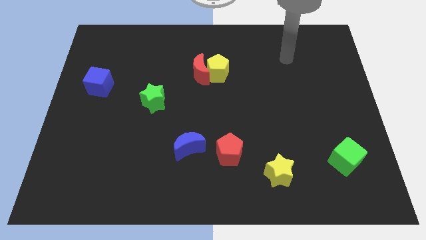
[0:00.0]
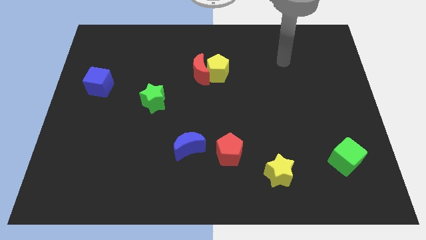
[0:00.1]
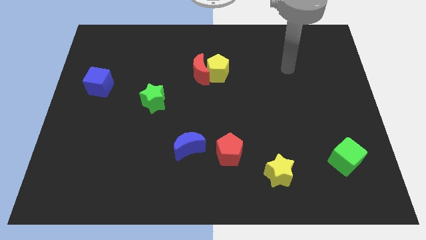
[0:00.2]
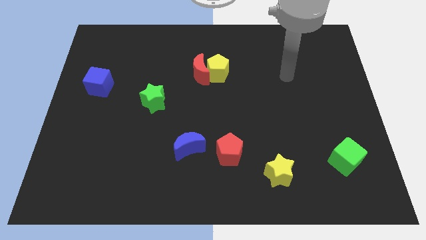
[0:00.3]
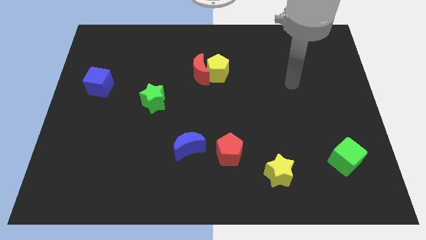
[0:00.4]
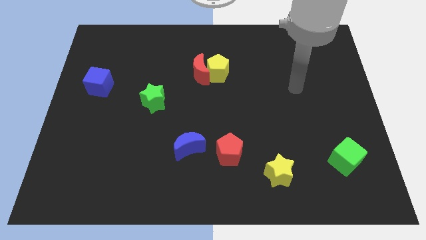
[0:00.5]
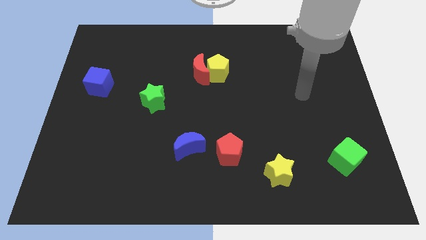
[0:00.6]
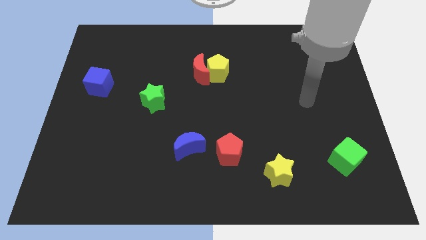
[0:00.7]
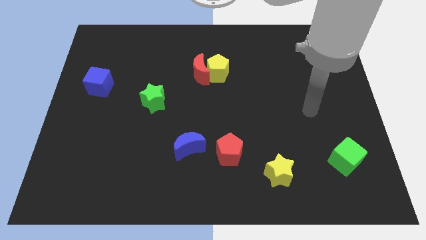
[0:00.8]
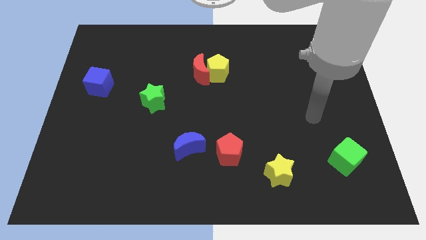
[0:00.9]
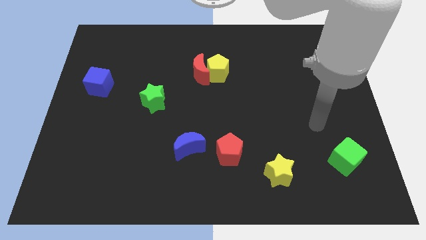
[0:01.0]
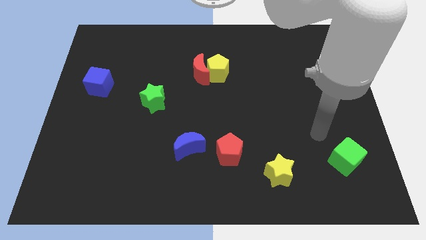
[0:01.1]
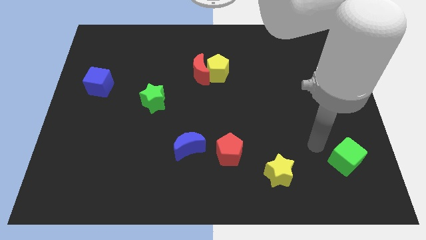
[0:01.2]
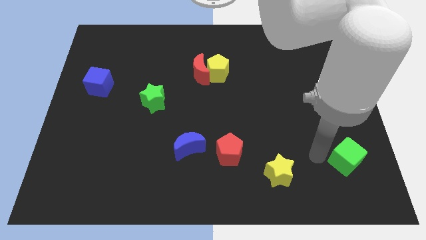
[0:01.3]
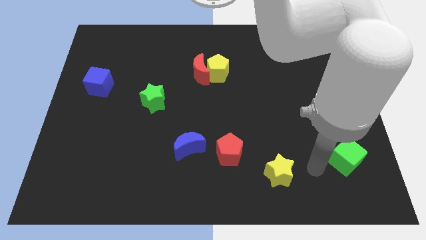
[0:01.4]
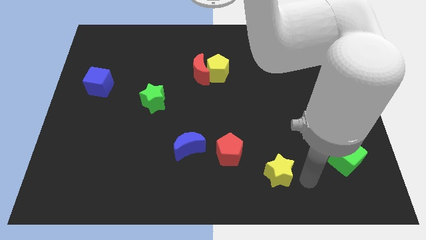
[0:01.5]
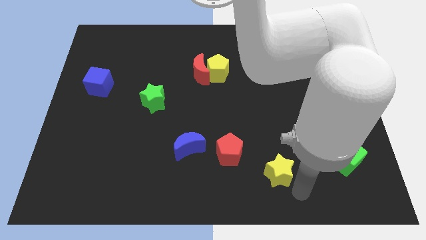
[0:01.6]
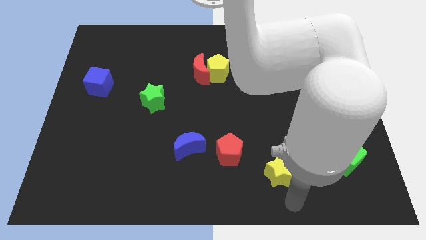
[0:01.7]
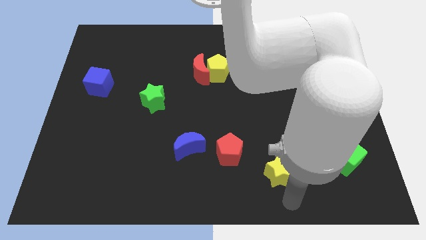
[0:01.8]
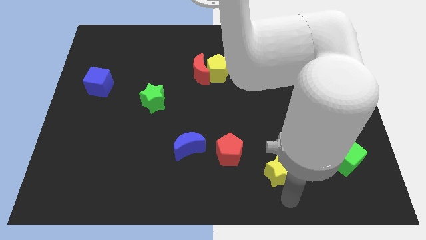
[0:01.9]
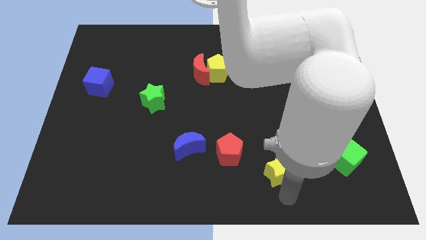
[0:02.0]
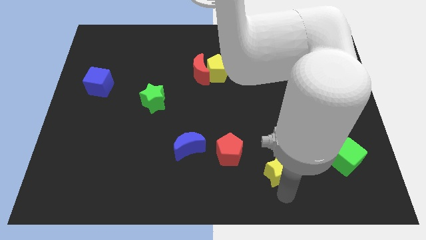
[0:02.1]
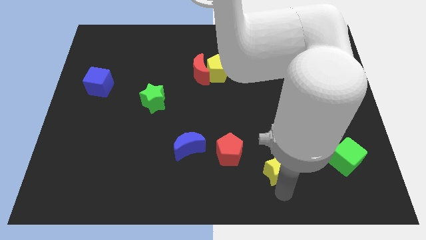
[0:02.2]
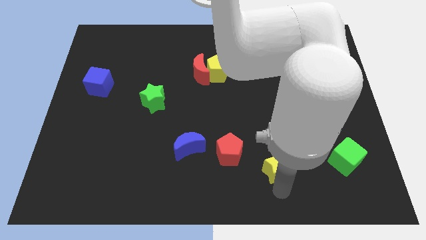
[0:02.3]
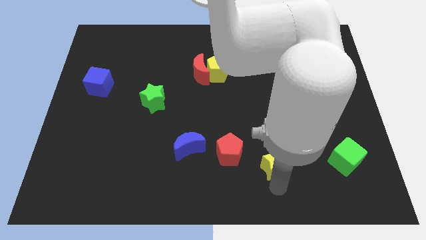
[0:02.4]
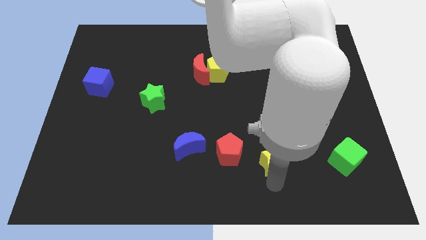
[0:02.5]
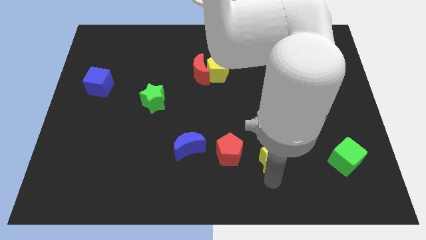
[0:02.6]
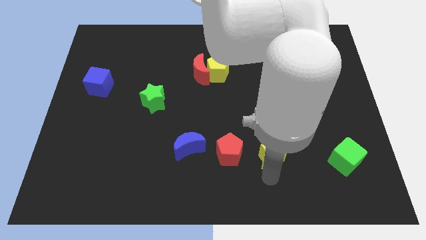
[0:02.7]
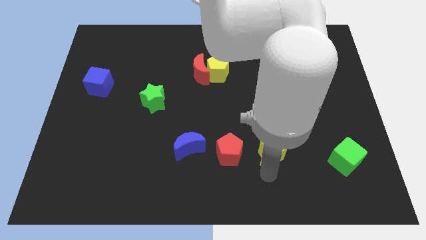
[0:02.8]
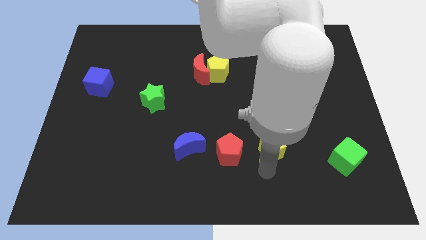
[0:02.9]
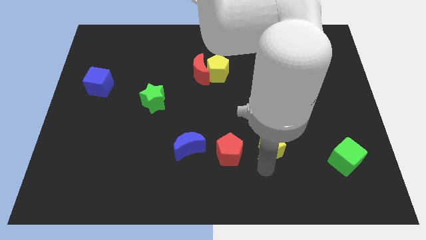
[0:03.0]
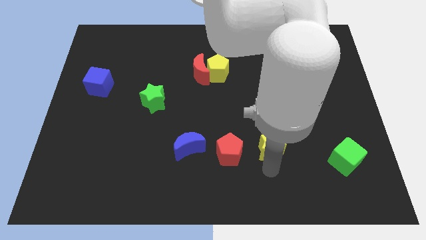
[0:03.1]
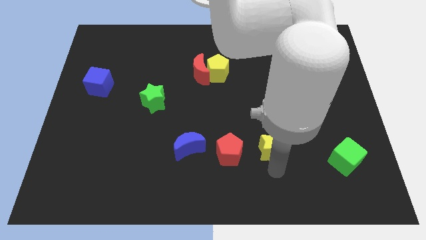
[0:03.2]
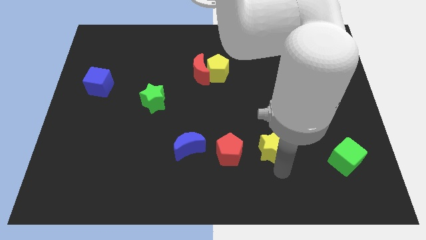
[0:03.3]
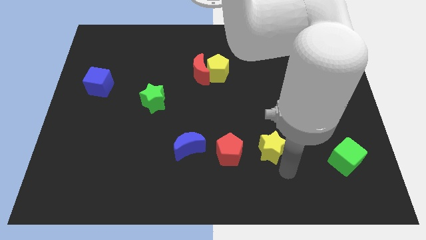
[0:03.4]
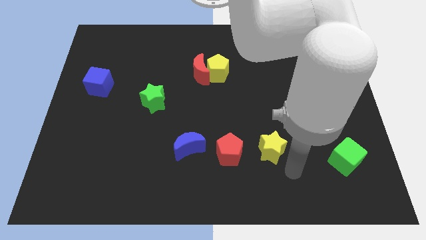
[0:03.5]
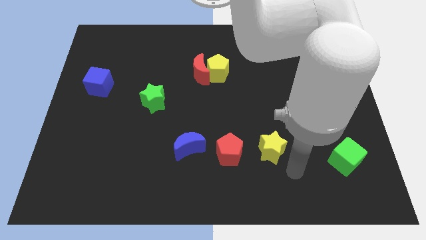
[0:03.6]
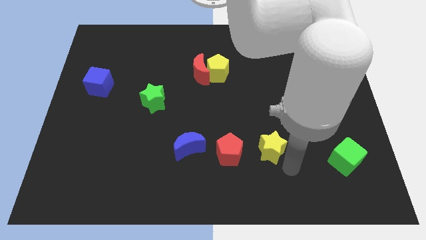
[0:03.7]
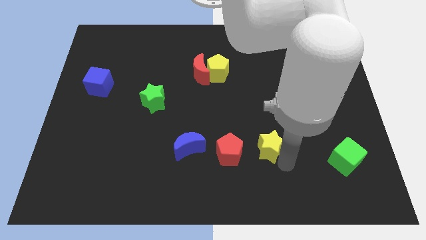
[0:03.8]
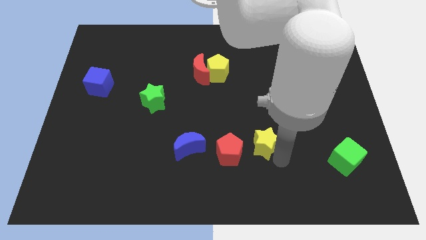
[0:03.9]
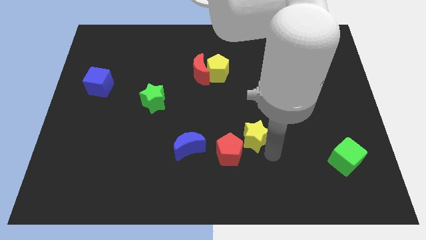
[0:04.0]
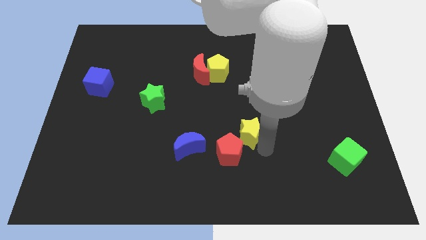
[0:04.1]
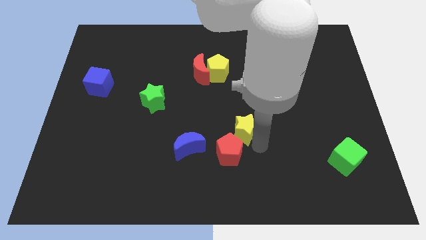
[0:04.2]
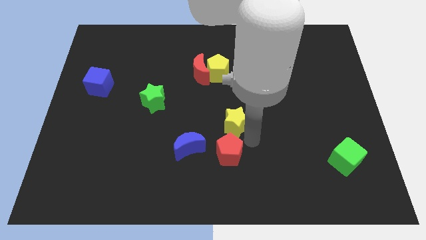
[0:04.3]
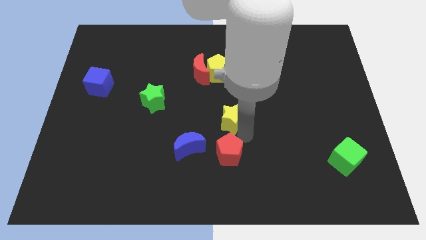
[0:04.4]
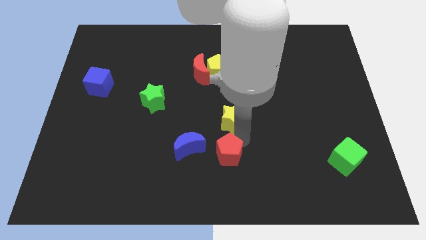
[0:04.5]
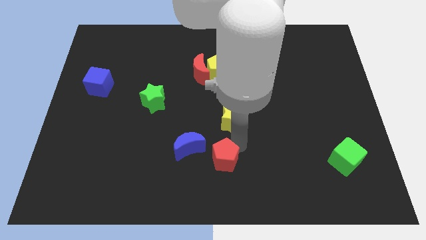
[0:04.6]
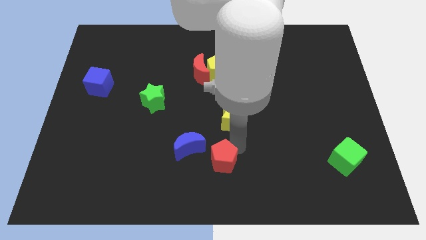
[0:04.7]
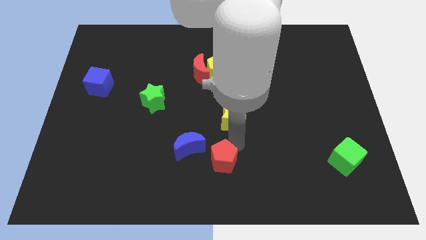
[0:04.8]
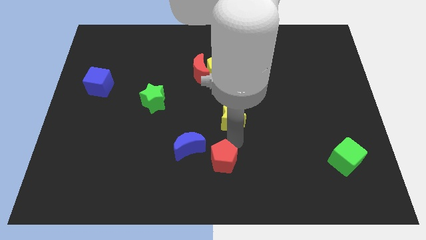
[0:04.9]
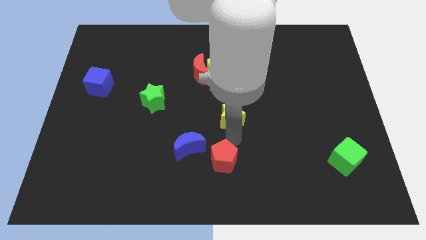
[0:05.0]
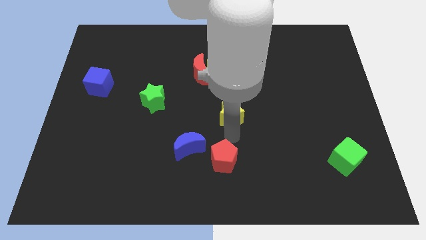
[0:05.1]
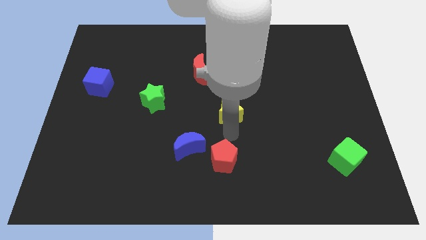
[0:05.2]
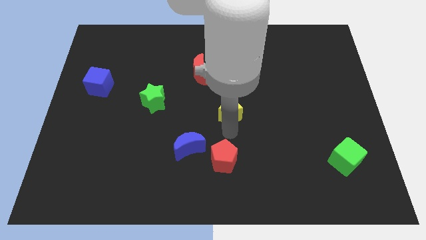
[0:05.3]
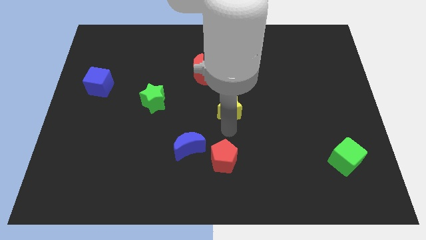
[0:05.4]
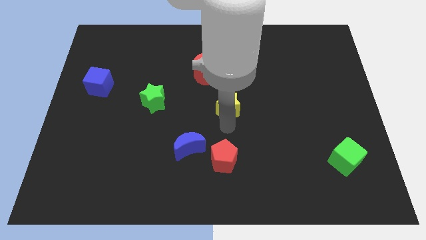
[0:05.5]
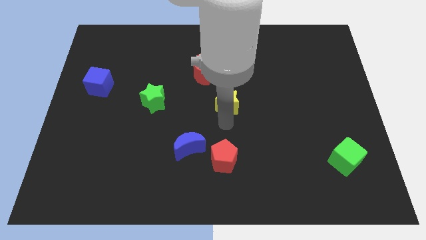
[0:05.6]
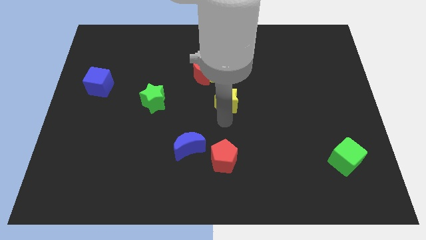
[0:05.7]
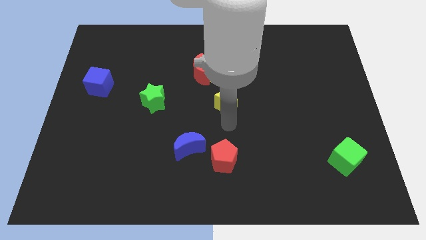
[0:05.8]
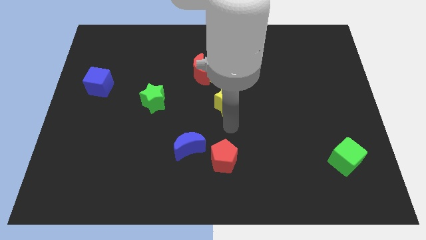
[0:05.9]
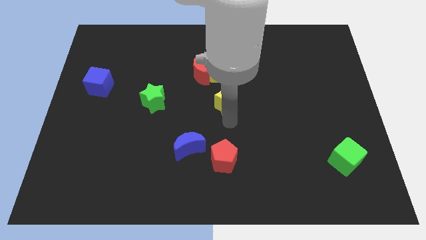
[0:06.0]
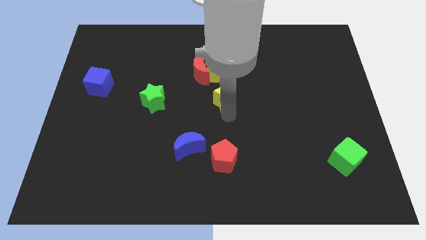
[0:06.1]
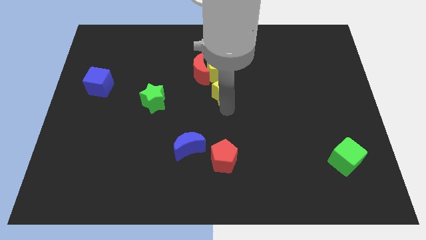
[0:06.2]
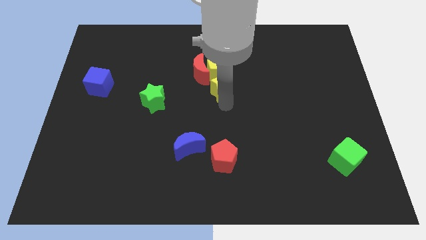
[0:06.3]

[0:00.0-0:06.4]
put the yellow star next to the yellow pentagon
